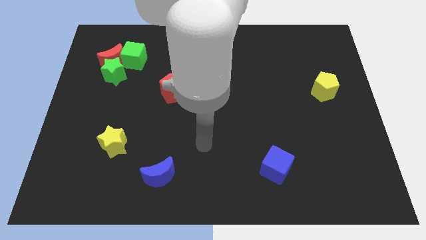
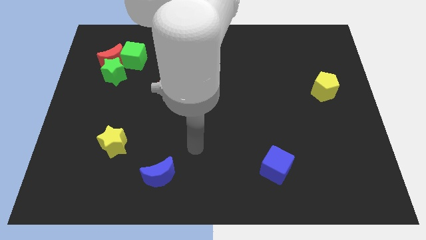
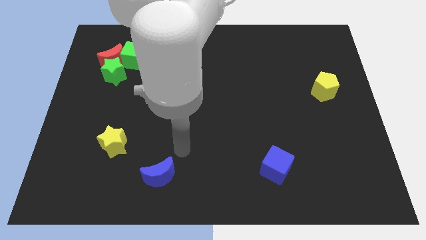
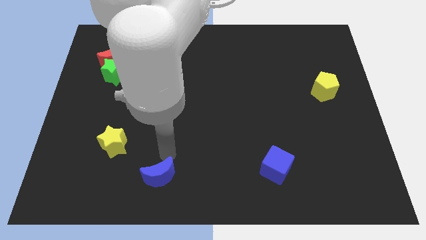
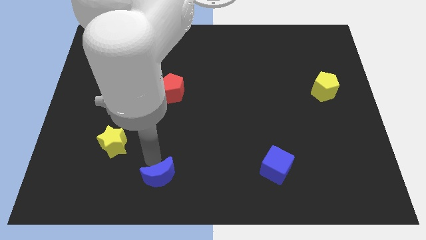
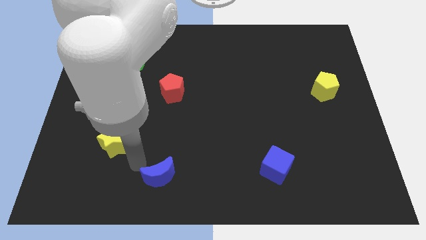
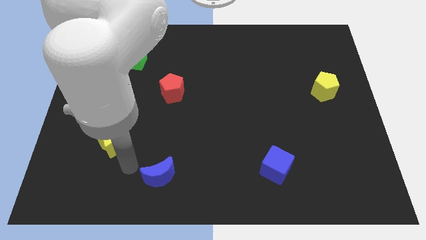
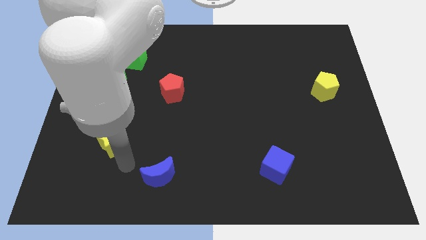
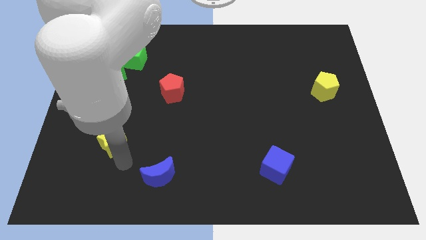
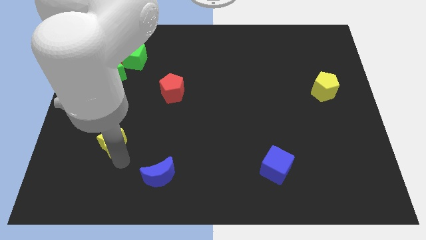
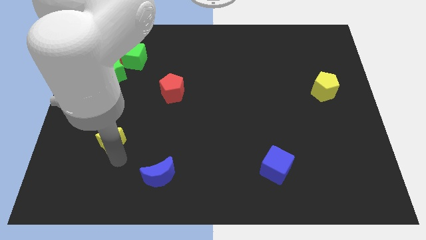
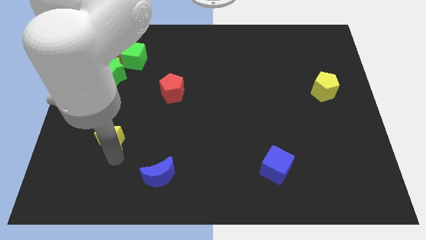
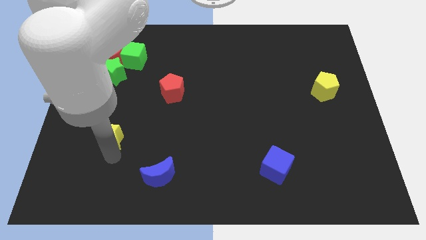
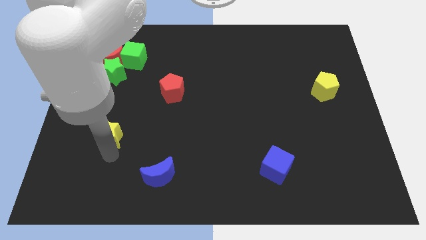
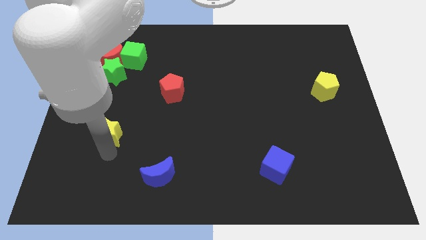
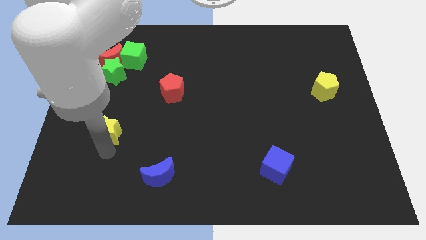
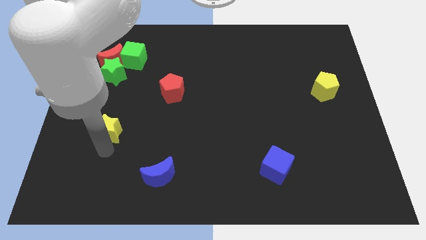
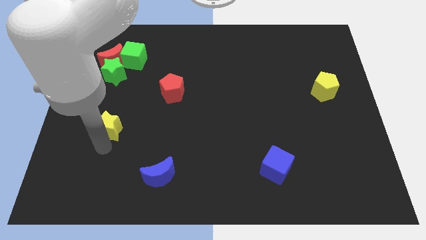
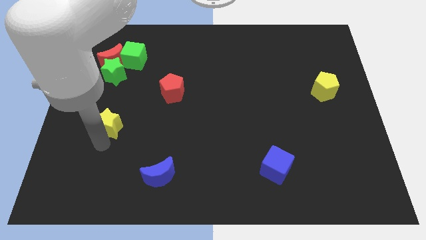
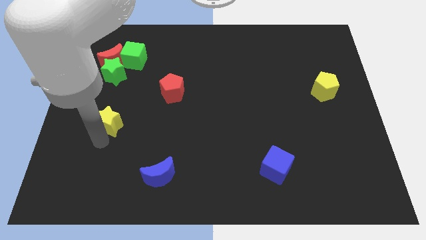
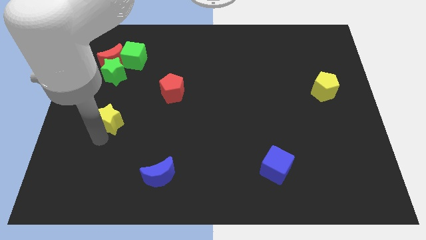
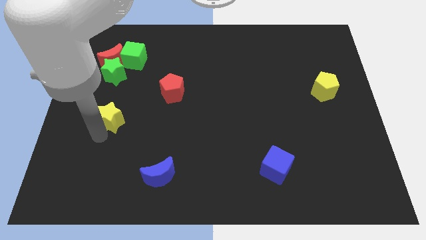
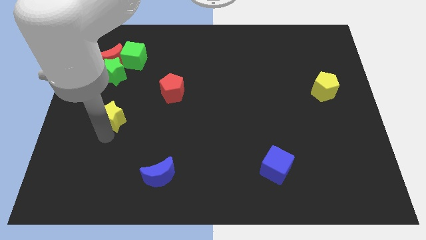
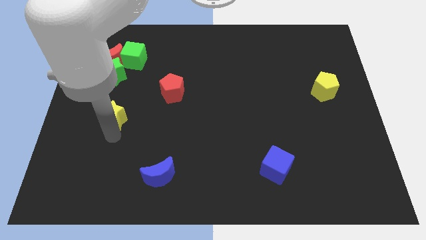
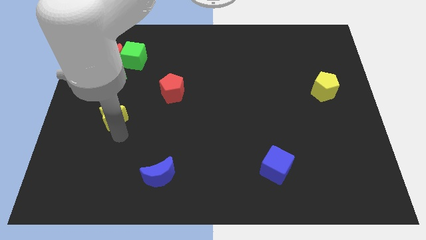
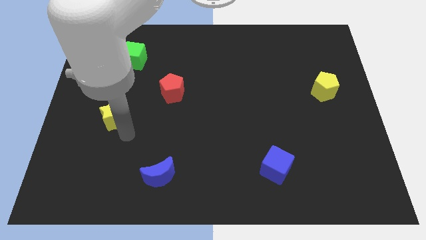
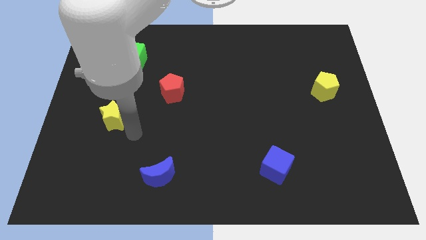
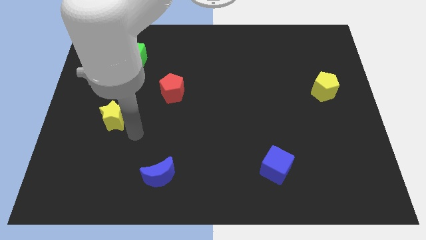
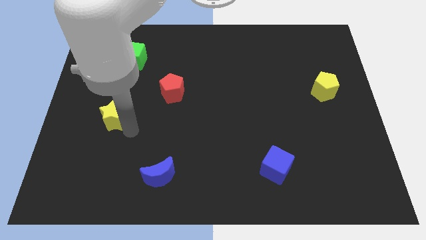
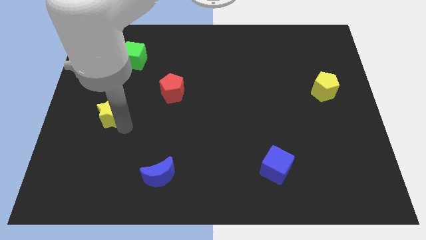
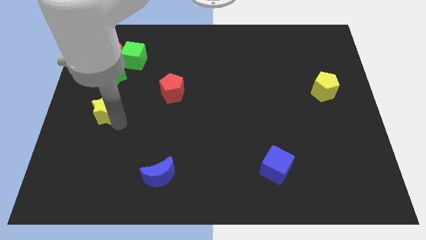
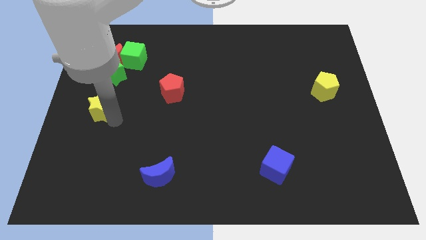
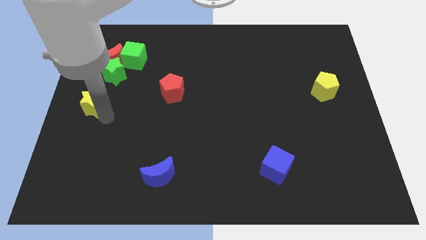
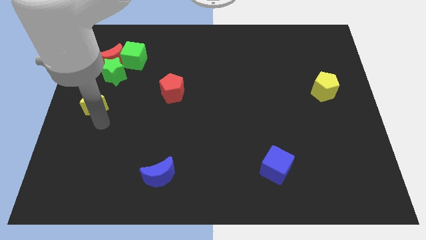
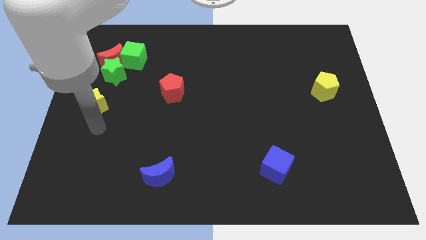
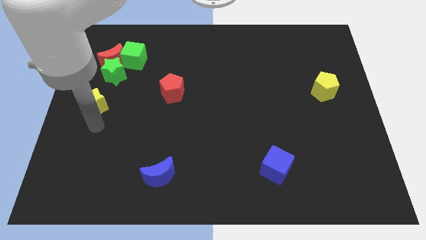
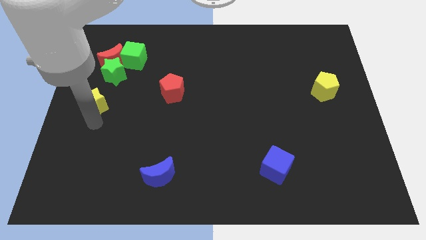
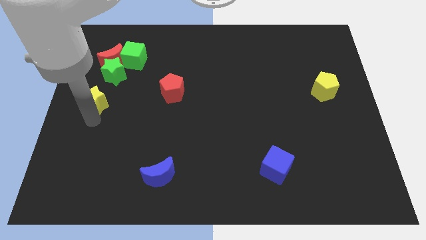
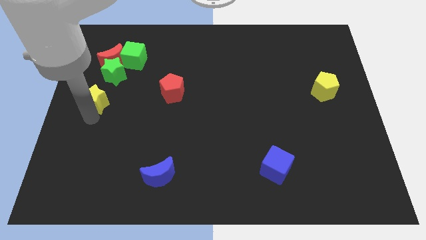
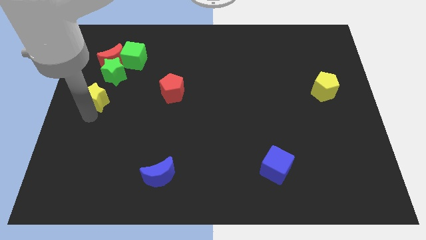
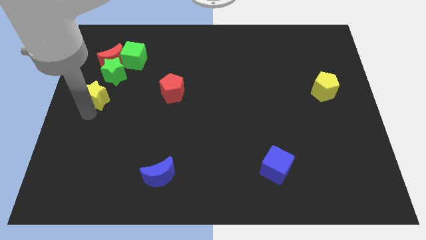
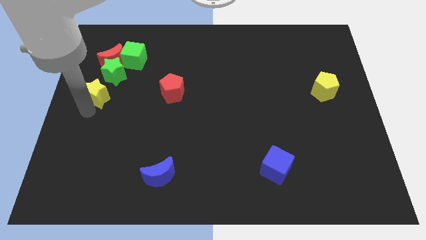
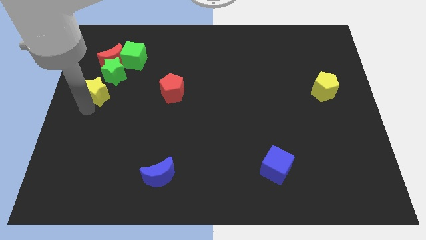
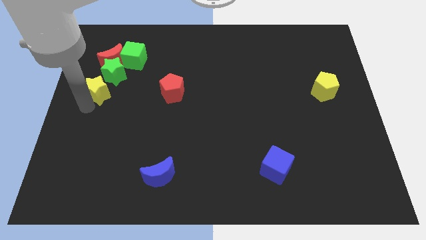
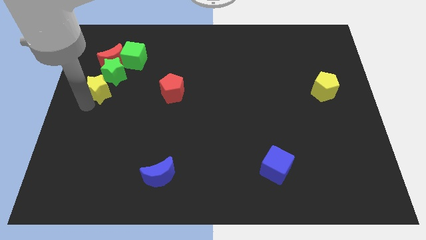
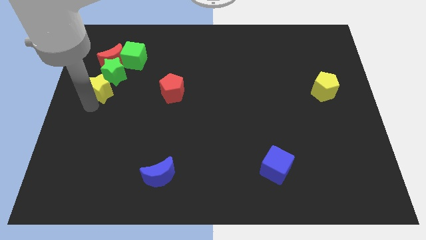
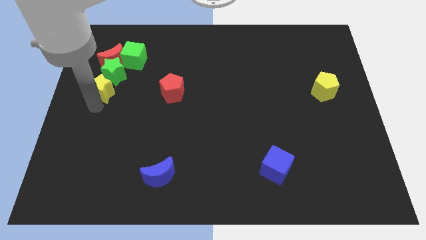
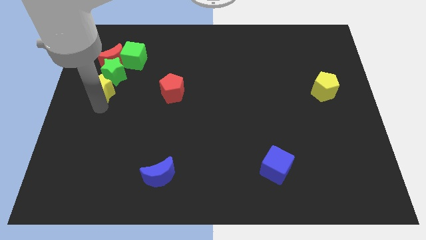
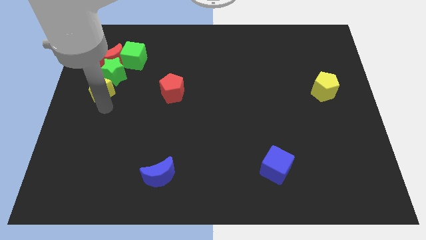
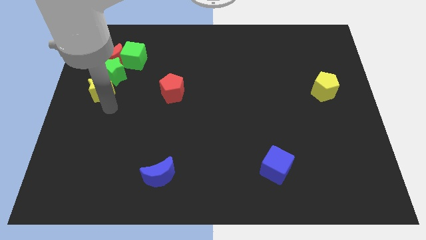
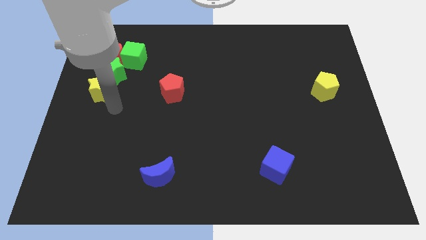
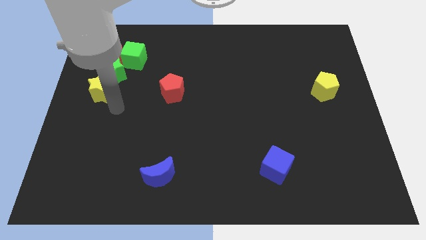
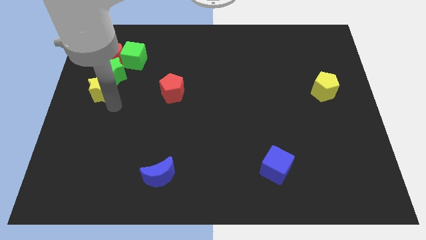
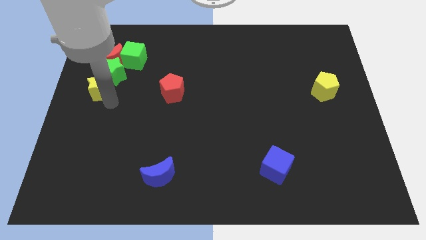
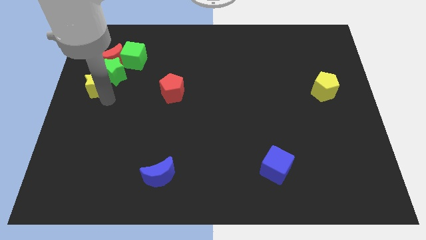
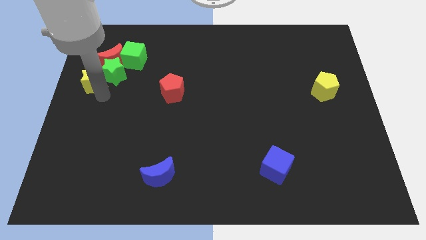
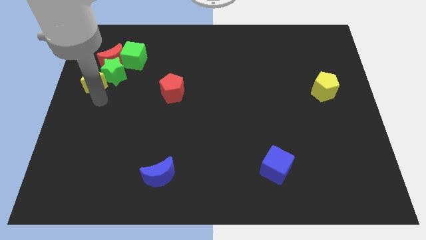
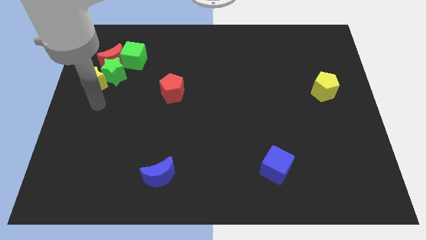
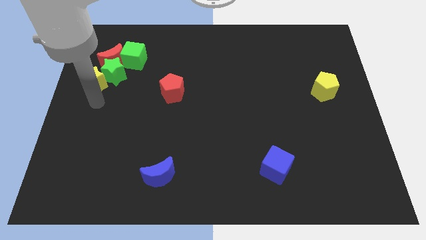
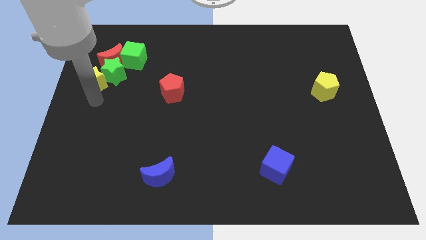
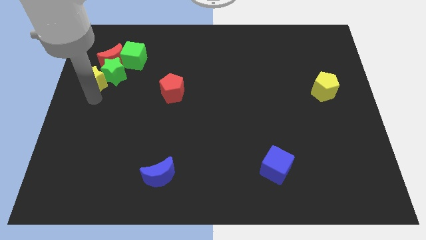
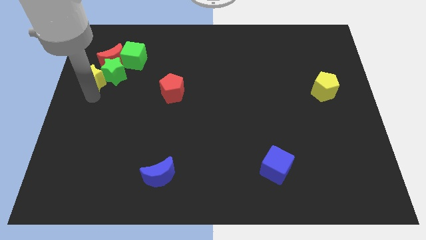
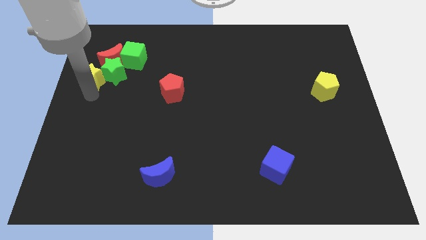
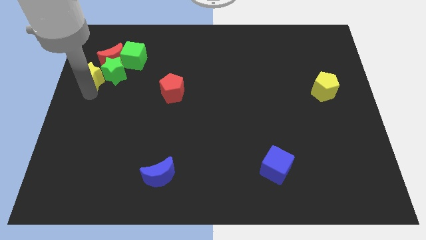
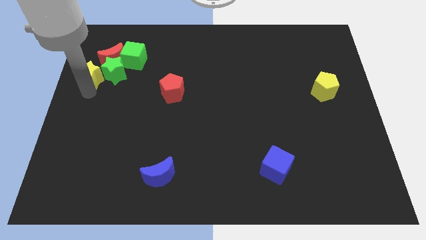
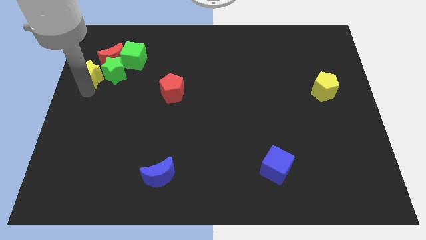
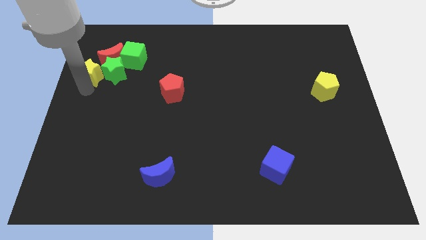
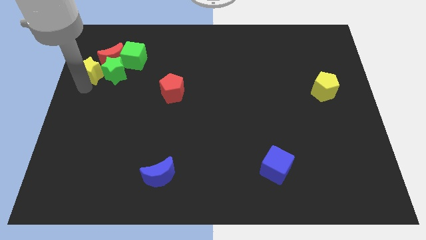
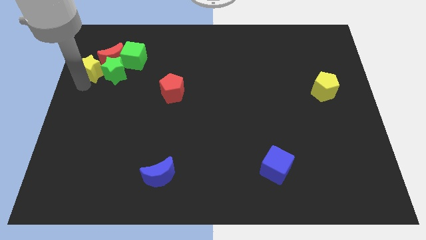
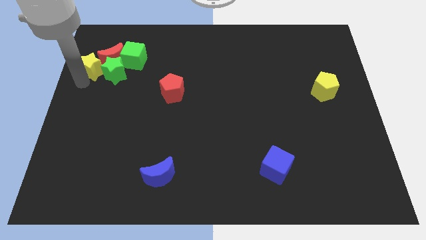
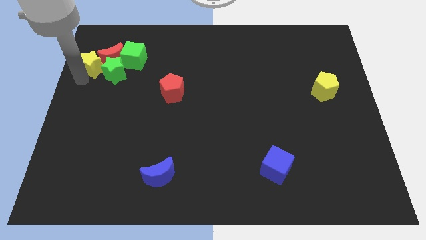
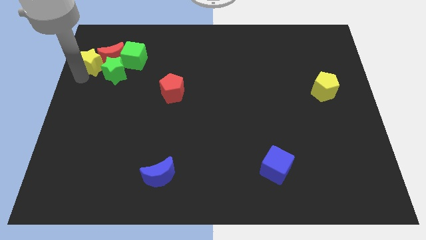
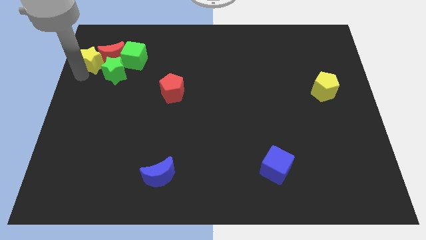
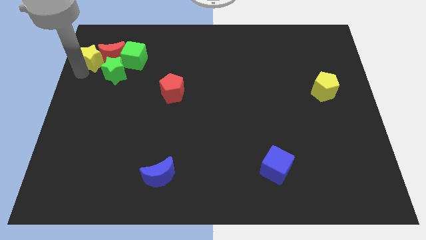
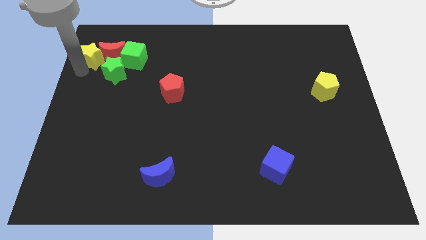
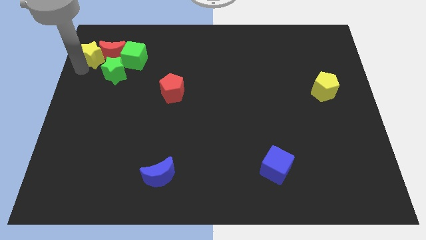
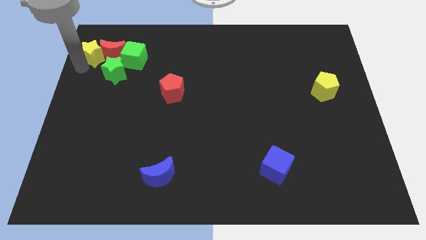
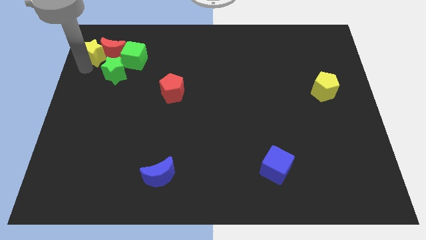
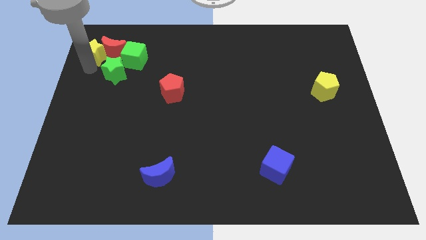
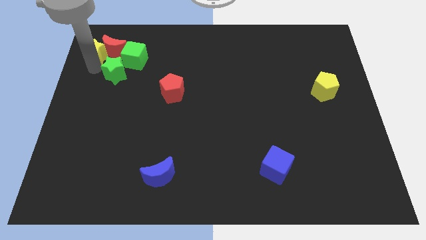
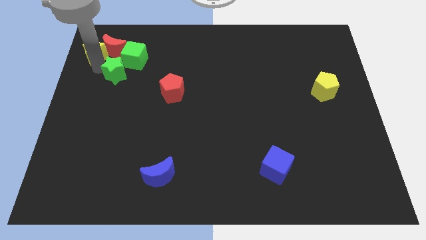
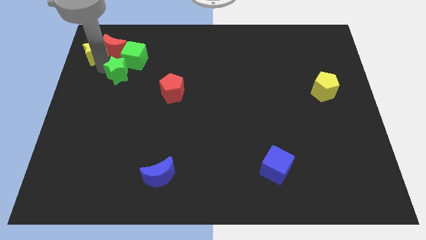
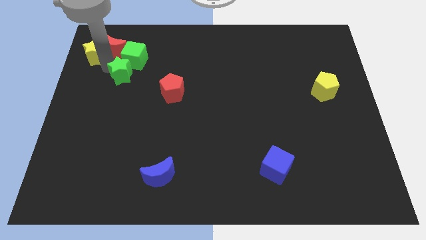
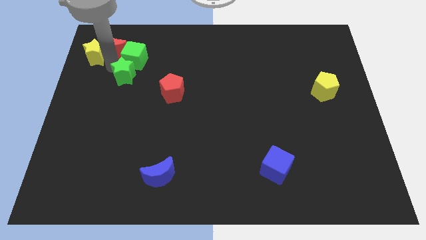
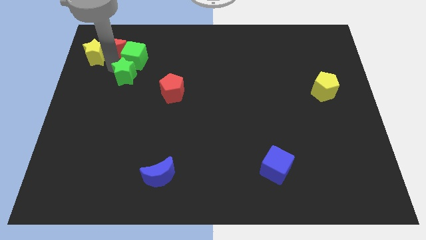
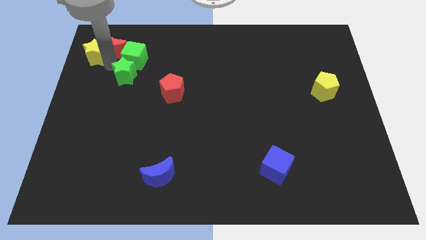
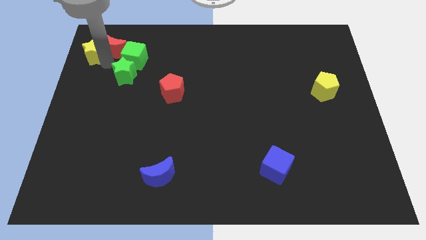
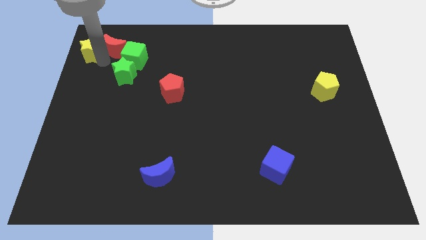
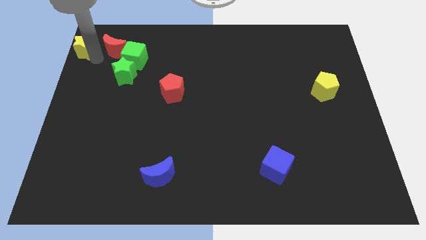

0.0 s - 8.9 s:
slide the yellow star to the top left of the board
